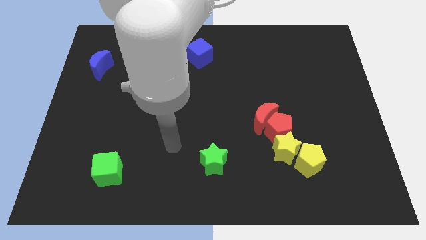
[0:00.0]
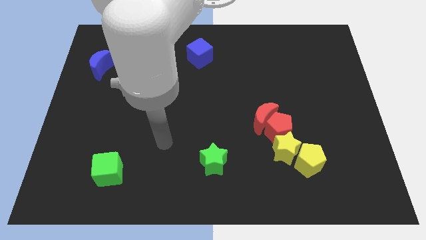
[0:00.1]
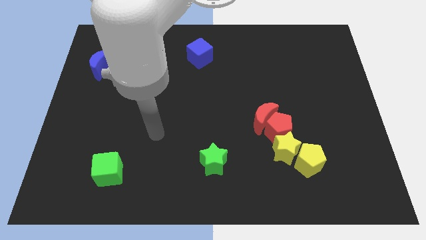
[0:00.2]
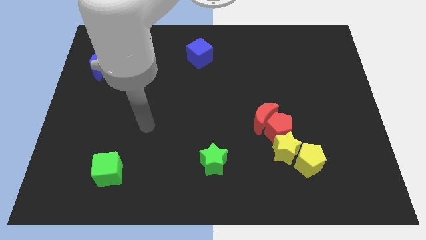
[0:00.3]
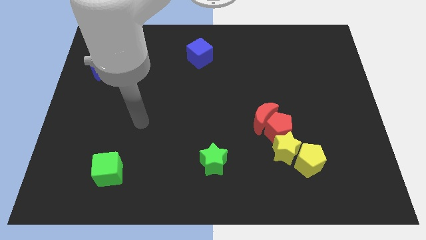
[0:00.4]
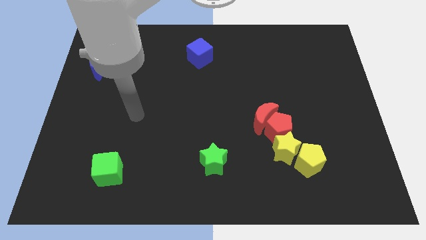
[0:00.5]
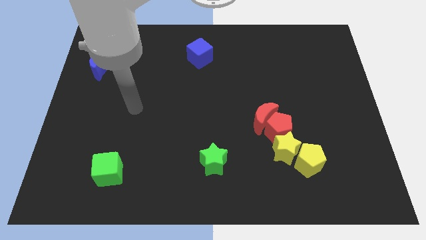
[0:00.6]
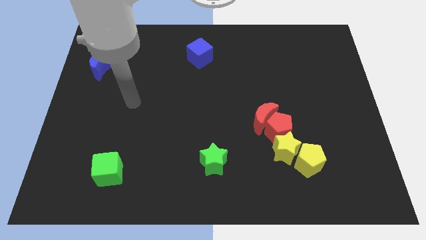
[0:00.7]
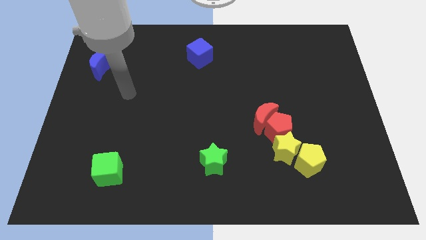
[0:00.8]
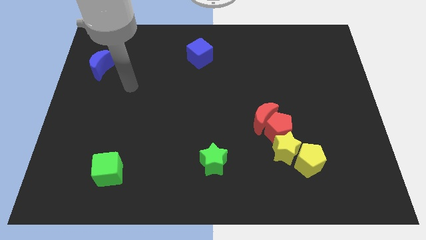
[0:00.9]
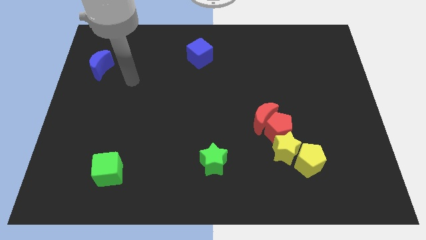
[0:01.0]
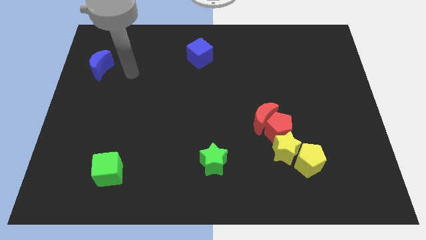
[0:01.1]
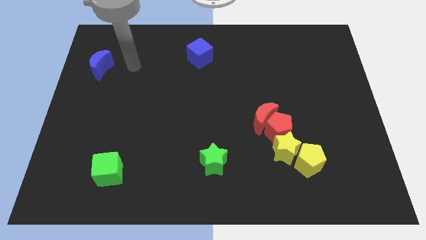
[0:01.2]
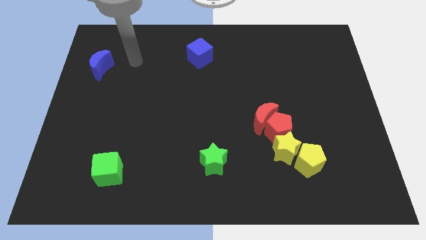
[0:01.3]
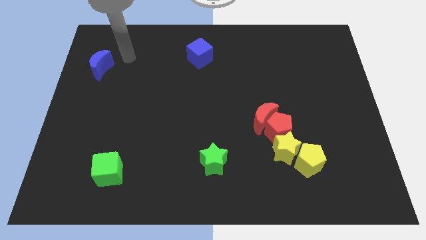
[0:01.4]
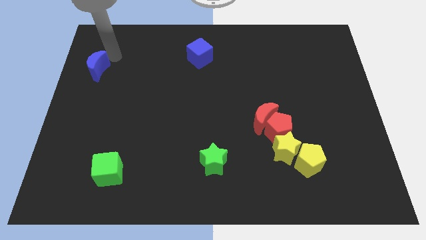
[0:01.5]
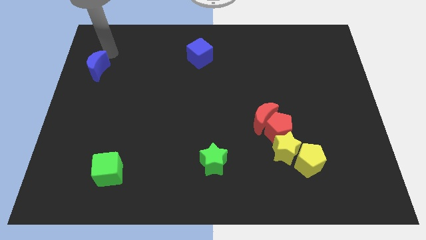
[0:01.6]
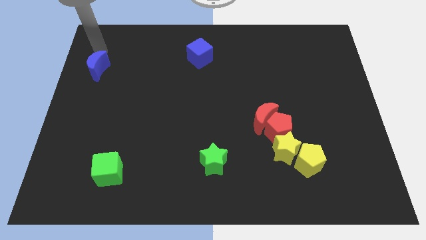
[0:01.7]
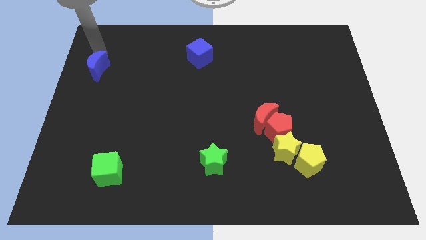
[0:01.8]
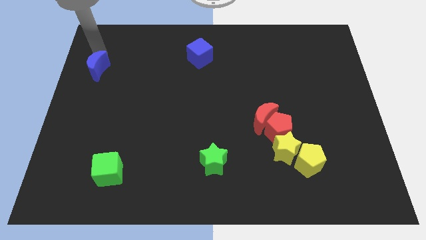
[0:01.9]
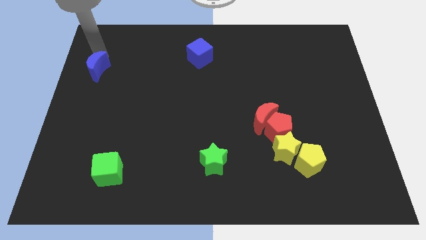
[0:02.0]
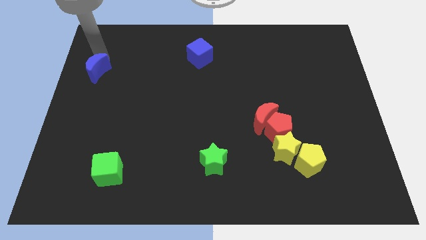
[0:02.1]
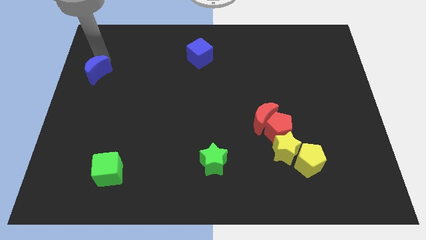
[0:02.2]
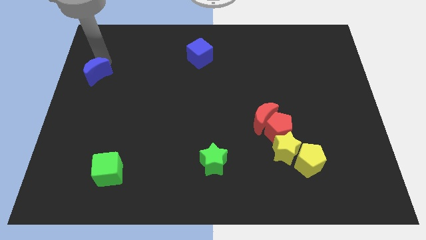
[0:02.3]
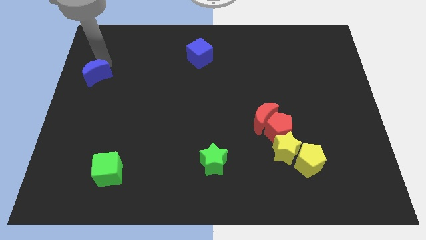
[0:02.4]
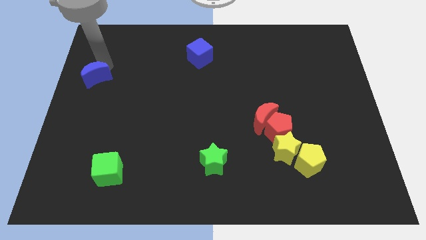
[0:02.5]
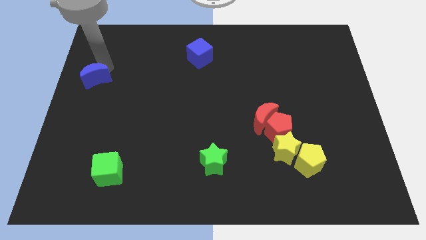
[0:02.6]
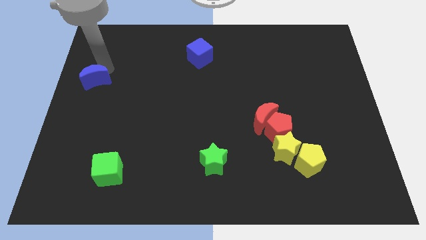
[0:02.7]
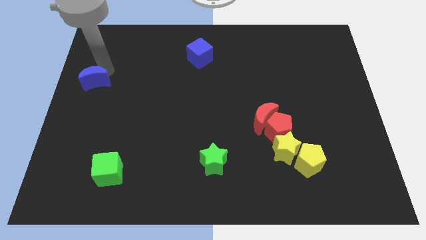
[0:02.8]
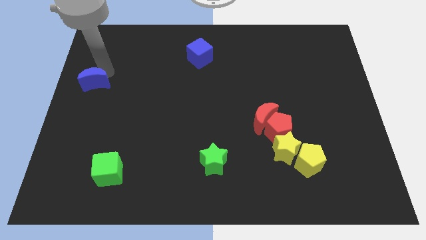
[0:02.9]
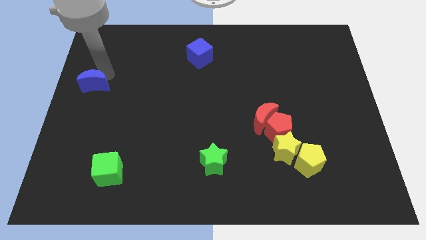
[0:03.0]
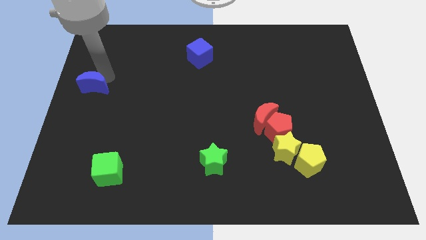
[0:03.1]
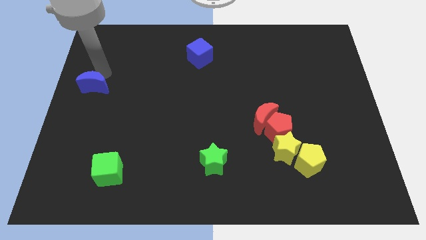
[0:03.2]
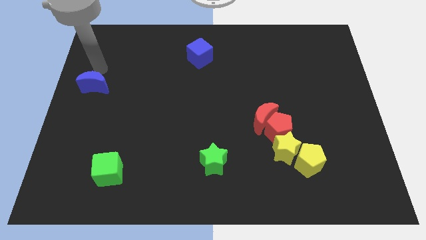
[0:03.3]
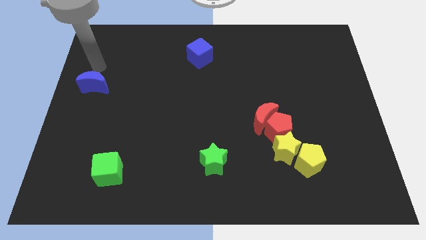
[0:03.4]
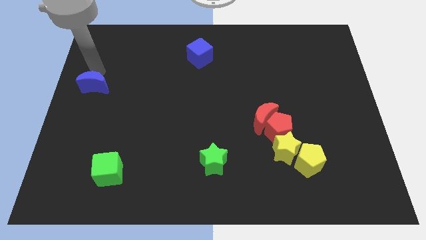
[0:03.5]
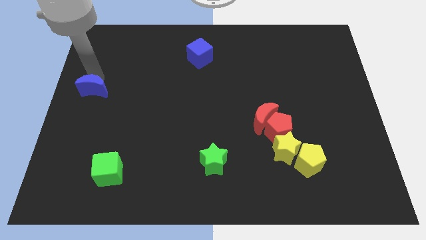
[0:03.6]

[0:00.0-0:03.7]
slide the blue moon somewhat down

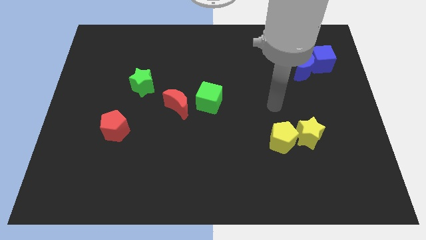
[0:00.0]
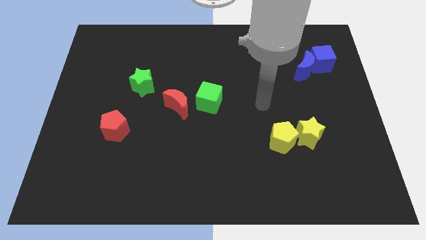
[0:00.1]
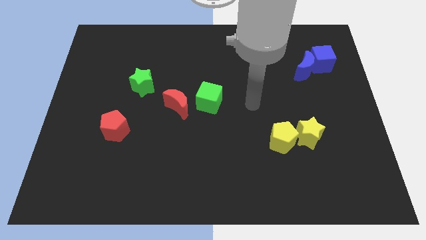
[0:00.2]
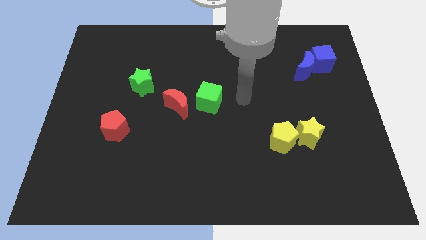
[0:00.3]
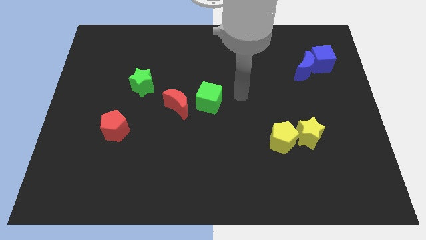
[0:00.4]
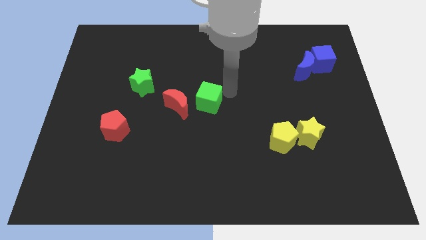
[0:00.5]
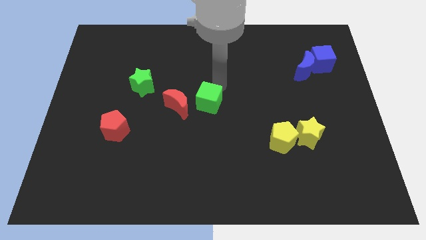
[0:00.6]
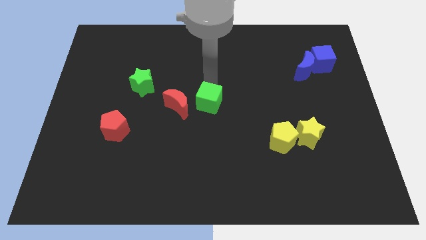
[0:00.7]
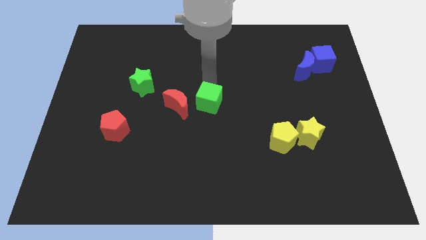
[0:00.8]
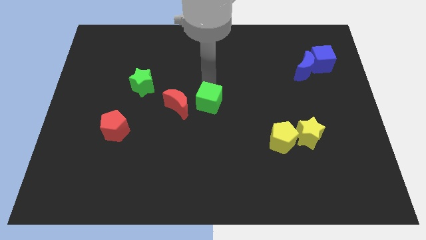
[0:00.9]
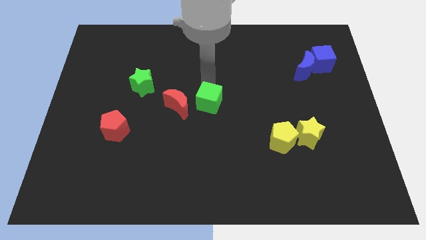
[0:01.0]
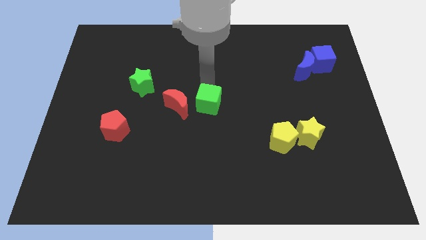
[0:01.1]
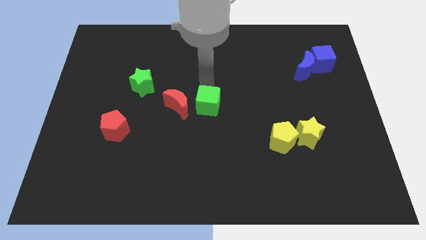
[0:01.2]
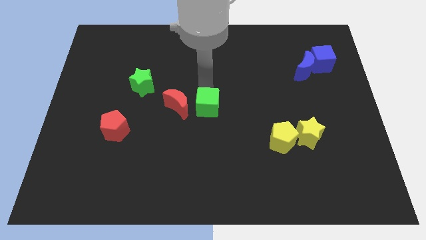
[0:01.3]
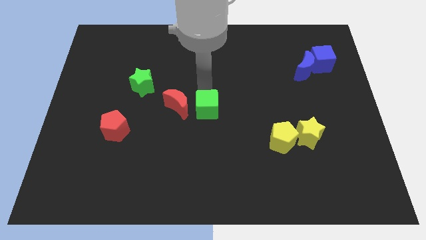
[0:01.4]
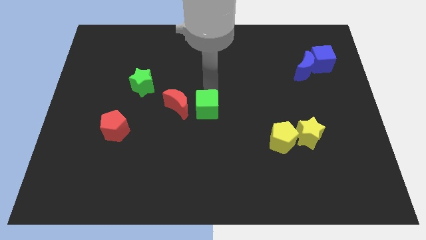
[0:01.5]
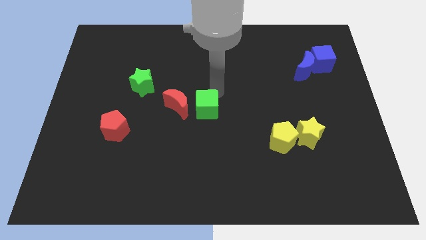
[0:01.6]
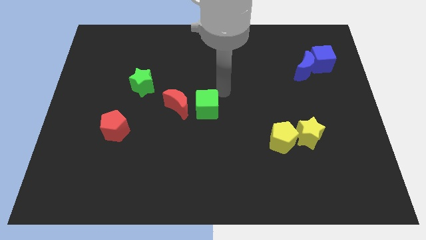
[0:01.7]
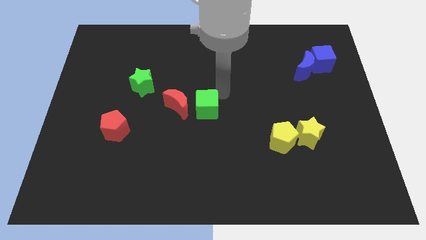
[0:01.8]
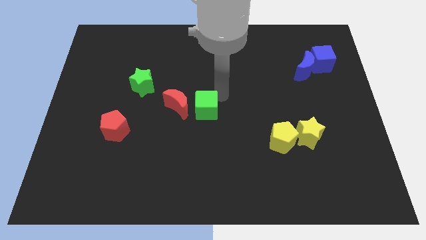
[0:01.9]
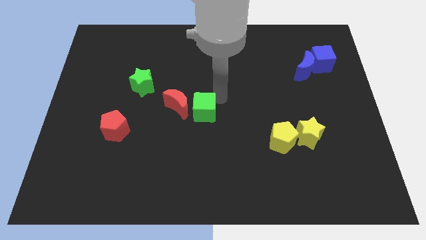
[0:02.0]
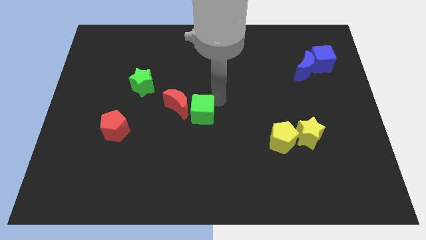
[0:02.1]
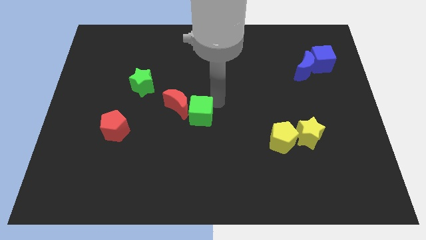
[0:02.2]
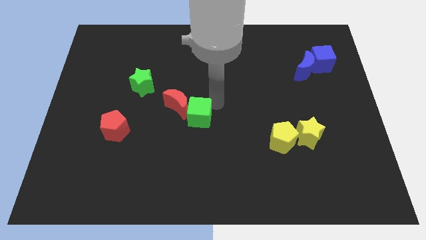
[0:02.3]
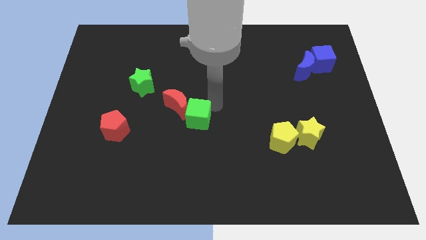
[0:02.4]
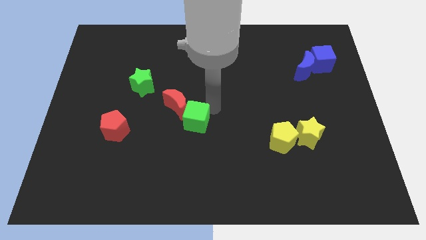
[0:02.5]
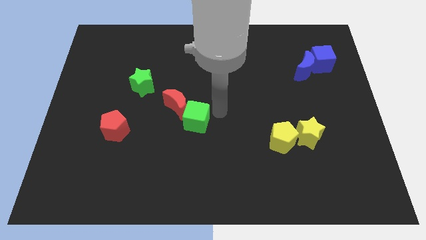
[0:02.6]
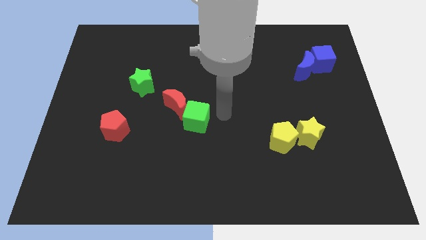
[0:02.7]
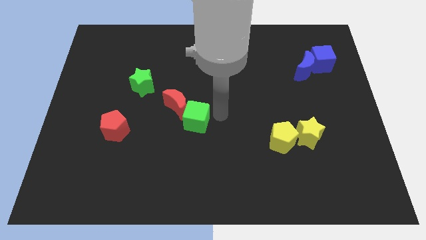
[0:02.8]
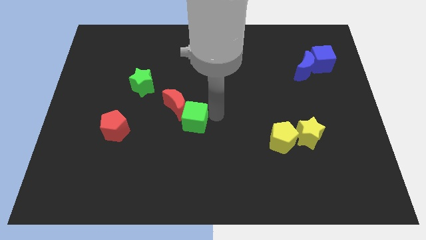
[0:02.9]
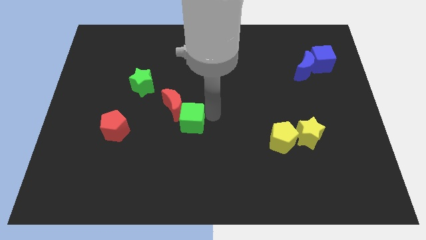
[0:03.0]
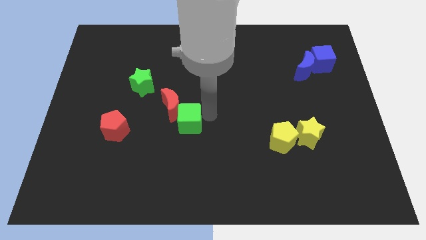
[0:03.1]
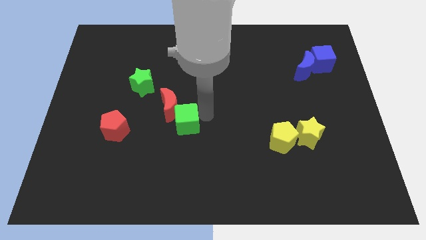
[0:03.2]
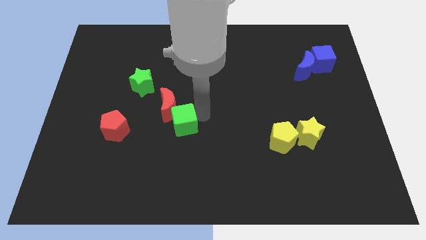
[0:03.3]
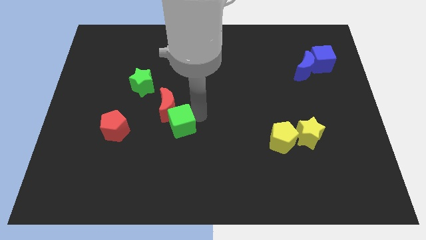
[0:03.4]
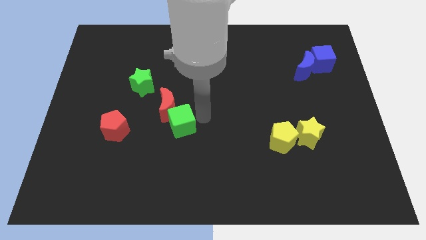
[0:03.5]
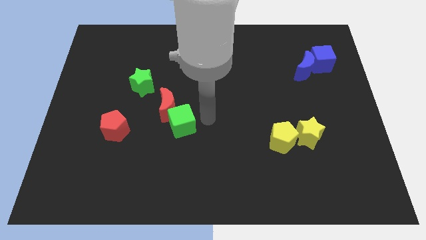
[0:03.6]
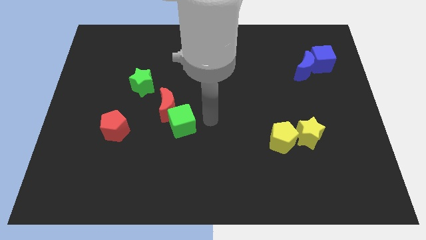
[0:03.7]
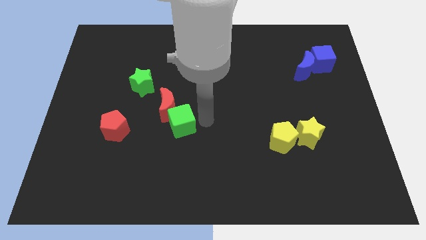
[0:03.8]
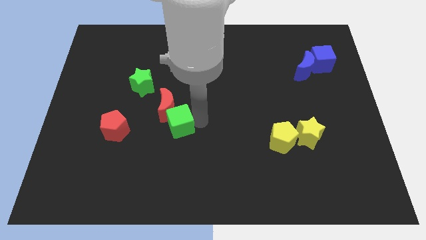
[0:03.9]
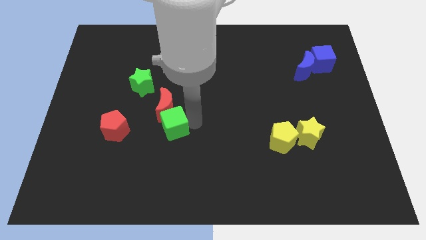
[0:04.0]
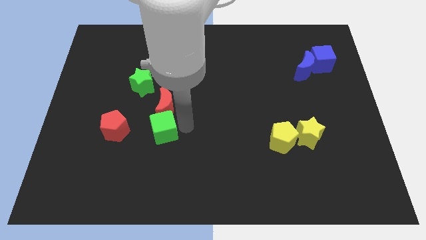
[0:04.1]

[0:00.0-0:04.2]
move the green cube to the left a little bit

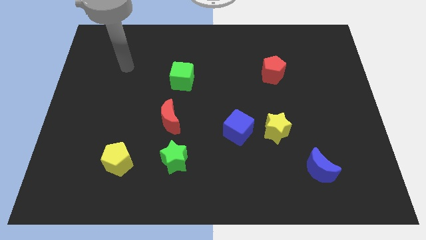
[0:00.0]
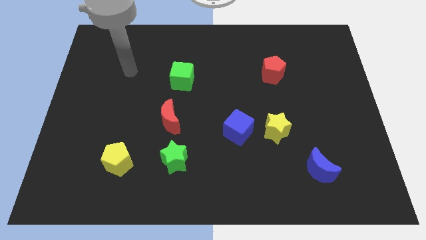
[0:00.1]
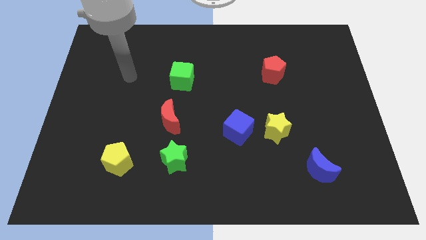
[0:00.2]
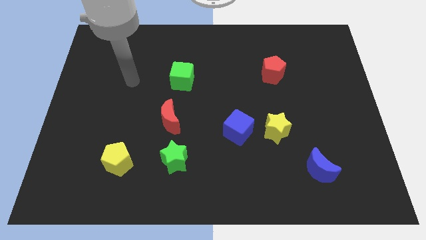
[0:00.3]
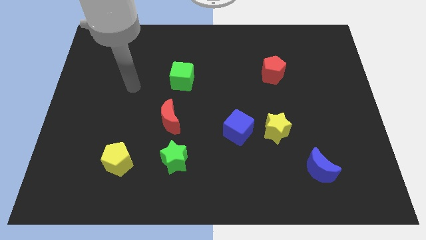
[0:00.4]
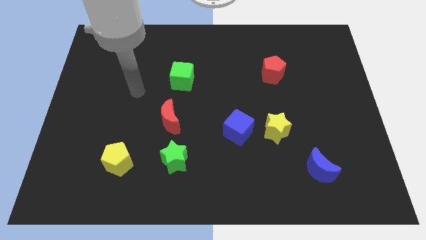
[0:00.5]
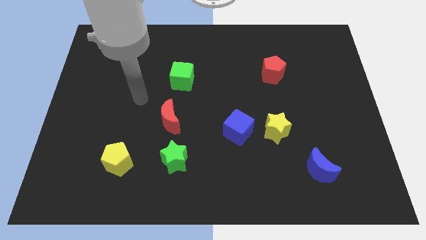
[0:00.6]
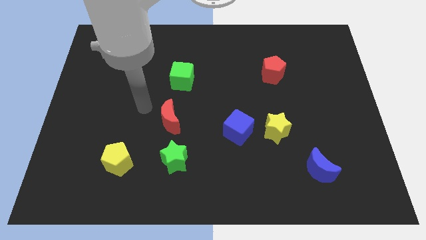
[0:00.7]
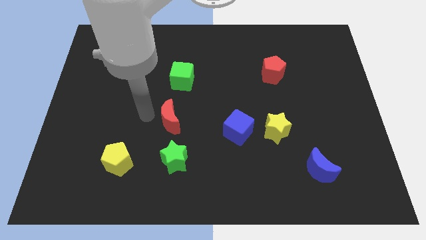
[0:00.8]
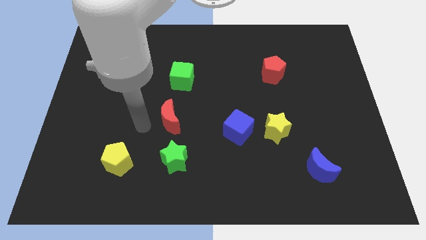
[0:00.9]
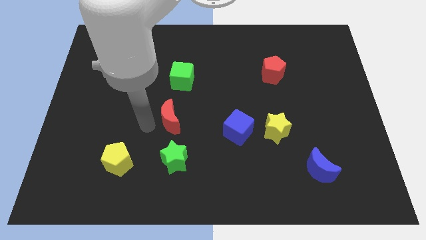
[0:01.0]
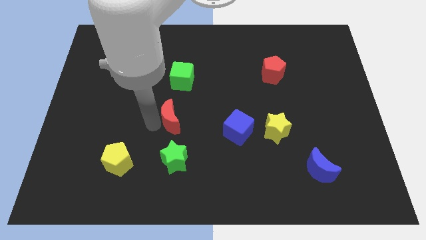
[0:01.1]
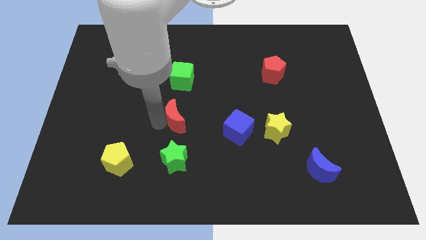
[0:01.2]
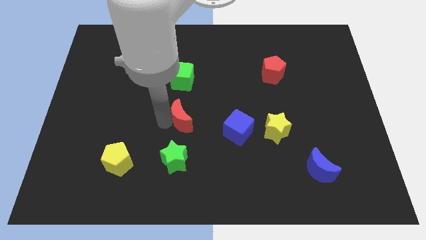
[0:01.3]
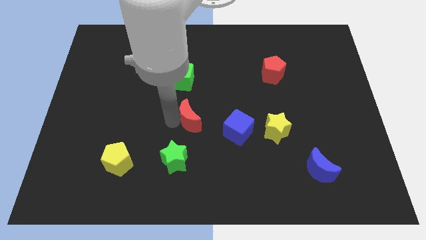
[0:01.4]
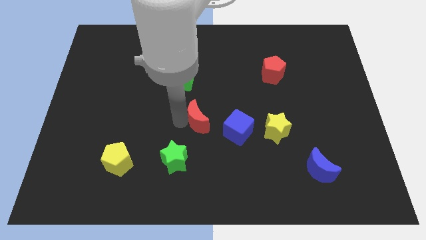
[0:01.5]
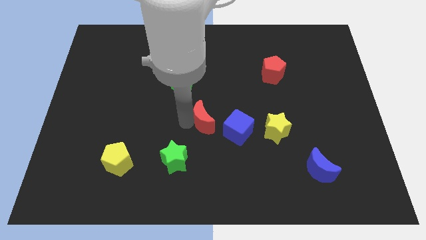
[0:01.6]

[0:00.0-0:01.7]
slightly push the red moon to the right
